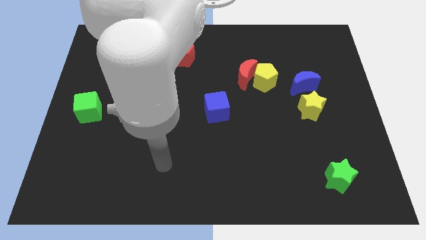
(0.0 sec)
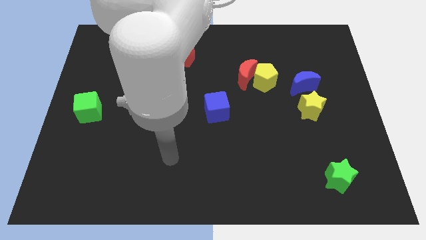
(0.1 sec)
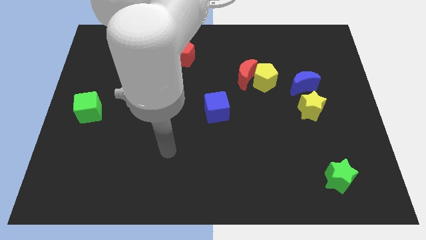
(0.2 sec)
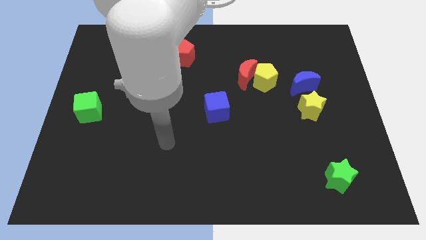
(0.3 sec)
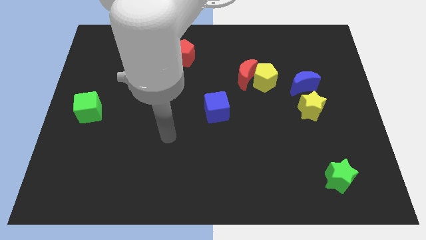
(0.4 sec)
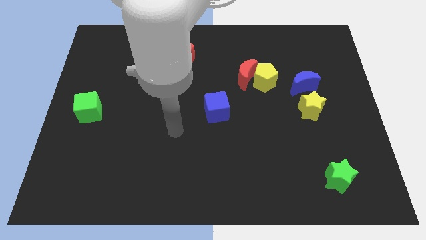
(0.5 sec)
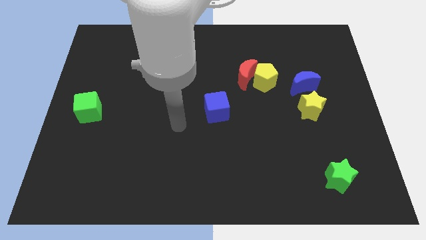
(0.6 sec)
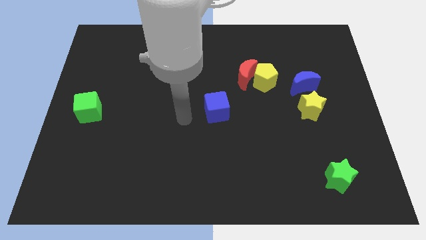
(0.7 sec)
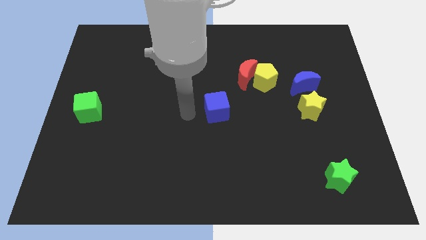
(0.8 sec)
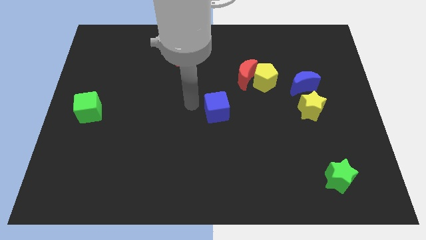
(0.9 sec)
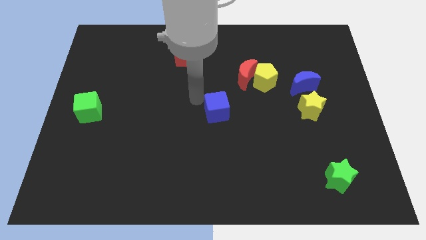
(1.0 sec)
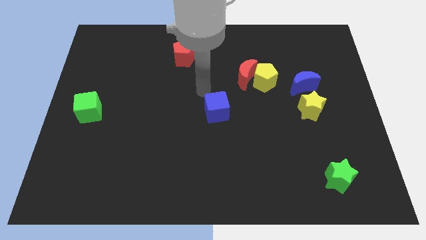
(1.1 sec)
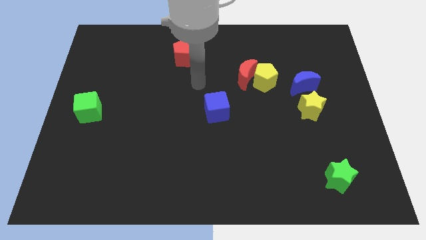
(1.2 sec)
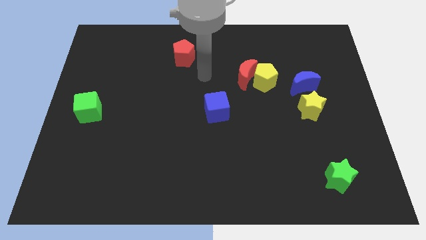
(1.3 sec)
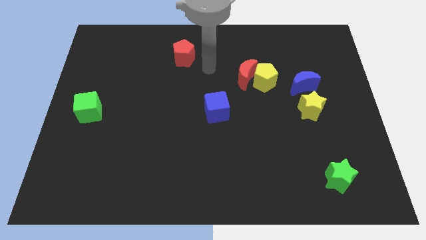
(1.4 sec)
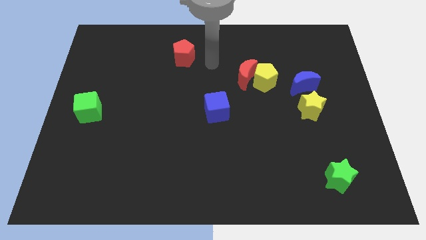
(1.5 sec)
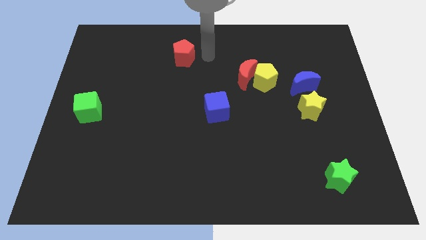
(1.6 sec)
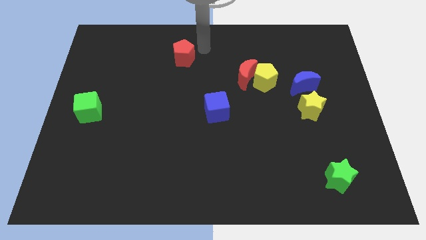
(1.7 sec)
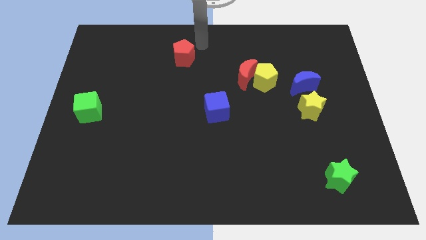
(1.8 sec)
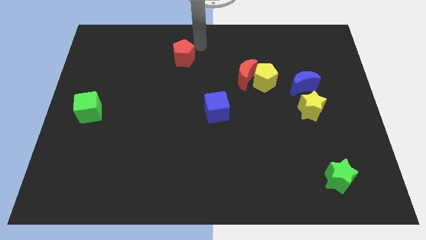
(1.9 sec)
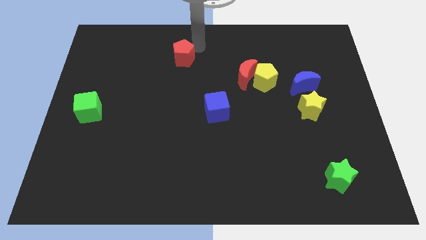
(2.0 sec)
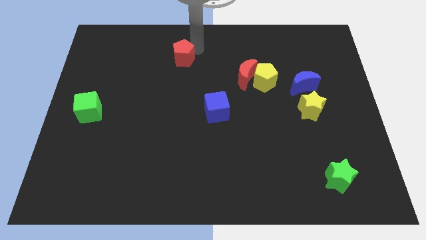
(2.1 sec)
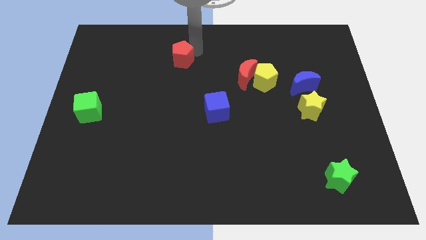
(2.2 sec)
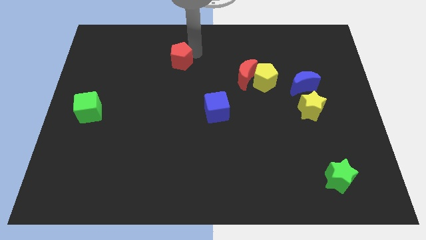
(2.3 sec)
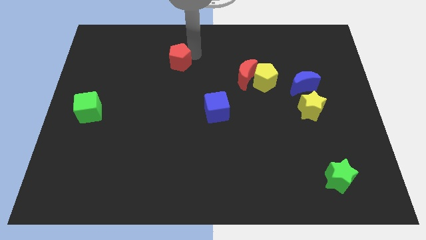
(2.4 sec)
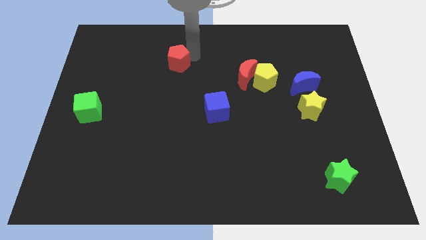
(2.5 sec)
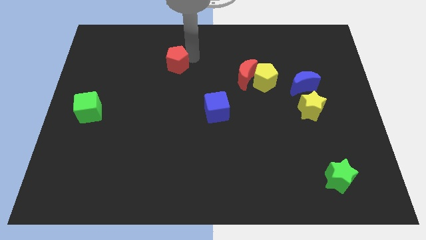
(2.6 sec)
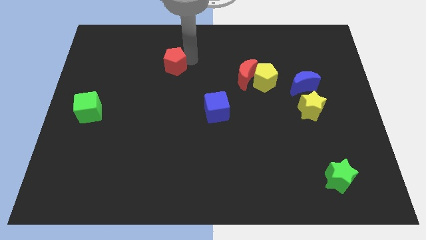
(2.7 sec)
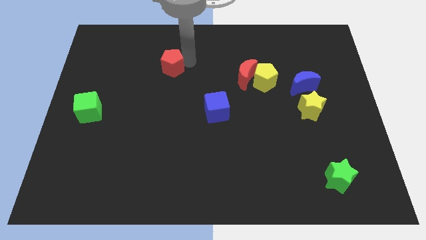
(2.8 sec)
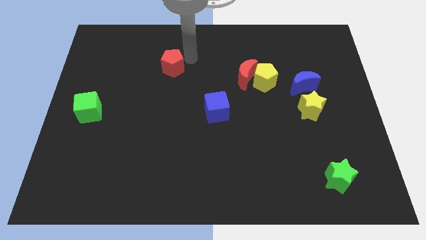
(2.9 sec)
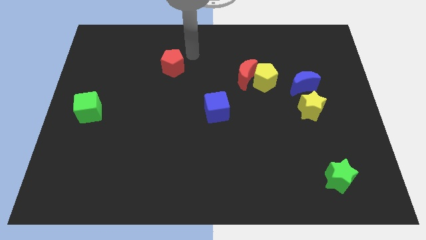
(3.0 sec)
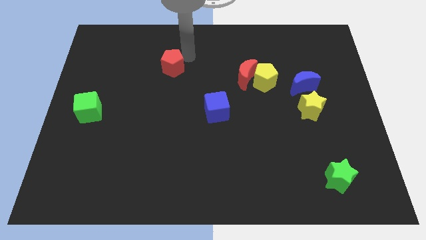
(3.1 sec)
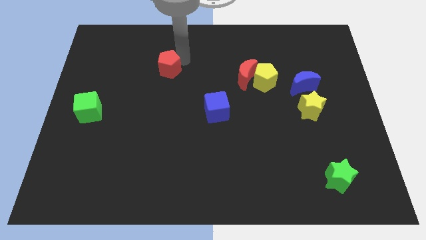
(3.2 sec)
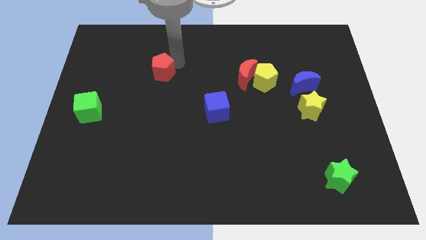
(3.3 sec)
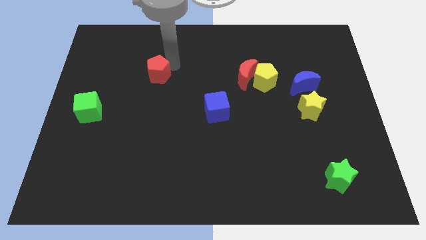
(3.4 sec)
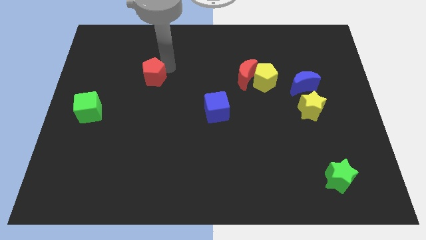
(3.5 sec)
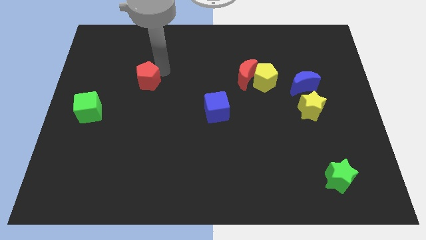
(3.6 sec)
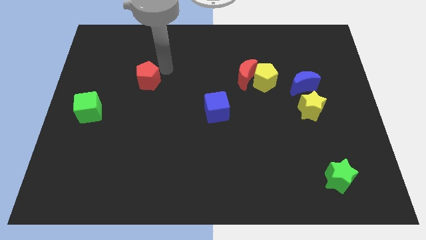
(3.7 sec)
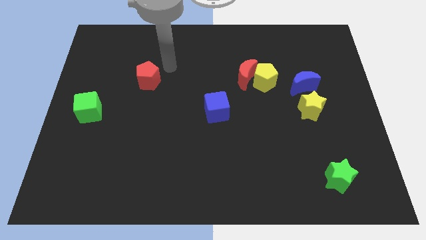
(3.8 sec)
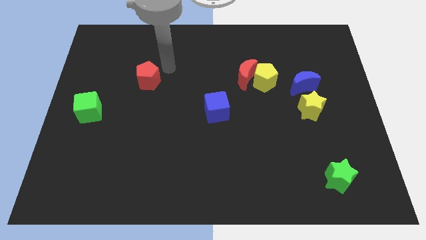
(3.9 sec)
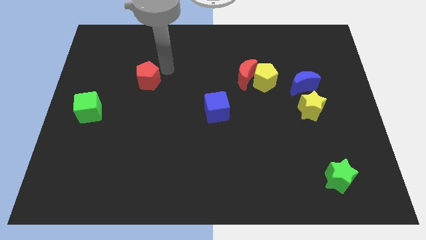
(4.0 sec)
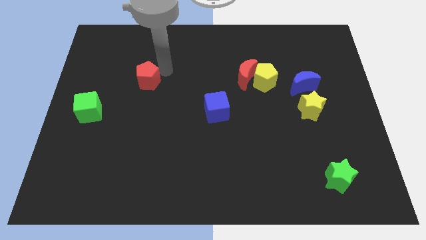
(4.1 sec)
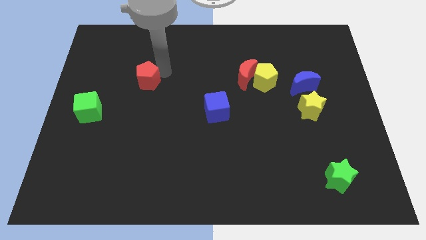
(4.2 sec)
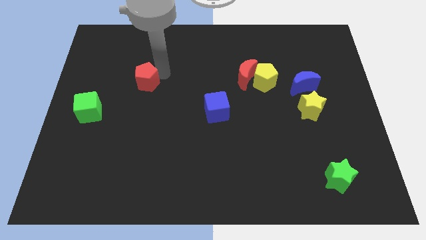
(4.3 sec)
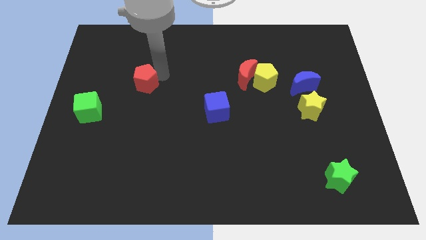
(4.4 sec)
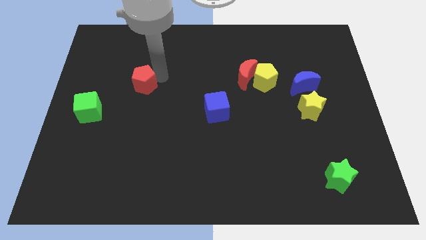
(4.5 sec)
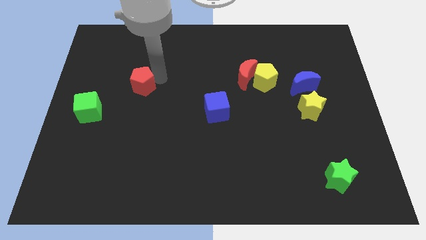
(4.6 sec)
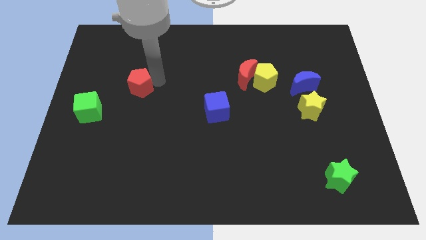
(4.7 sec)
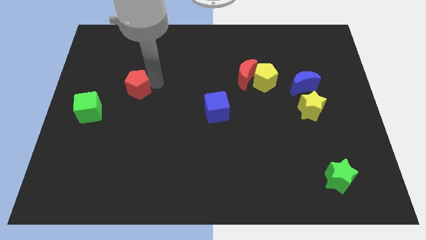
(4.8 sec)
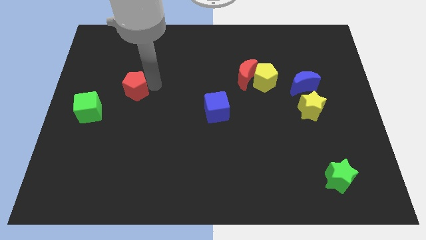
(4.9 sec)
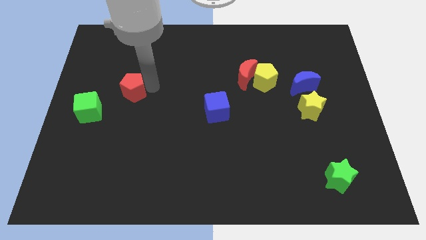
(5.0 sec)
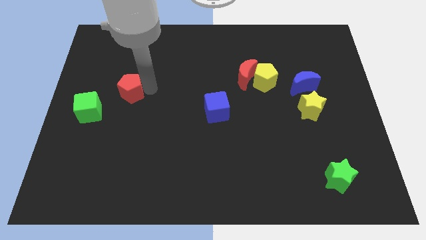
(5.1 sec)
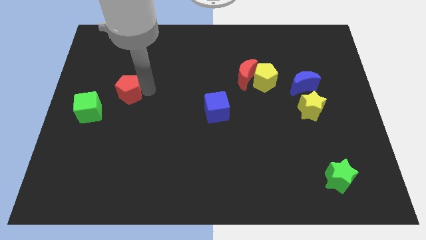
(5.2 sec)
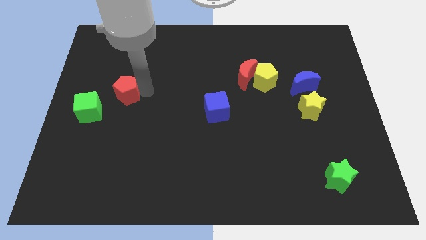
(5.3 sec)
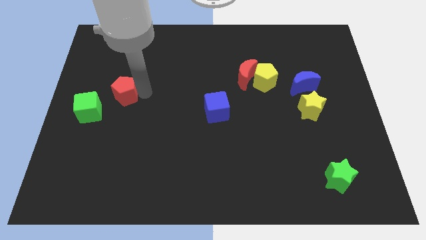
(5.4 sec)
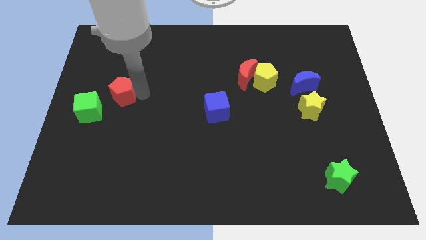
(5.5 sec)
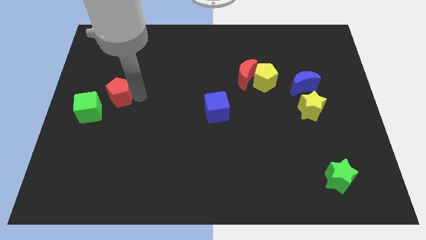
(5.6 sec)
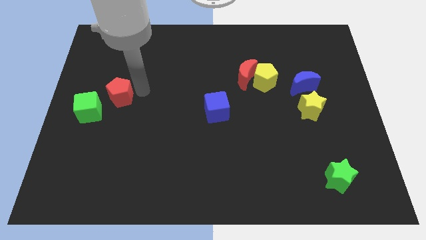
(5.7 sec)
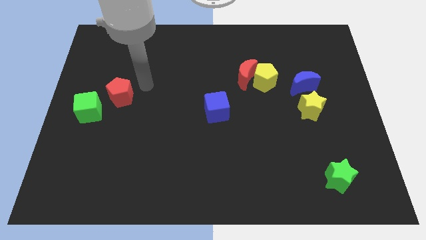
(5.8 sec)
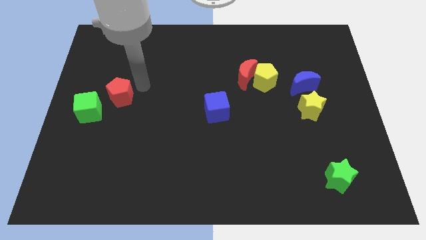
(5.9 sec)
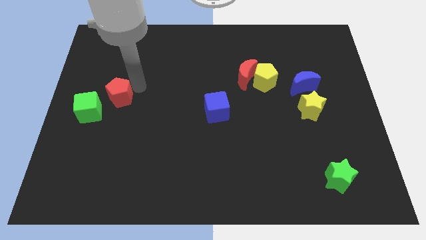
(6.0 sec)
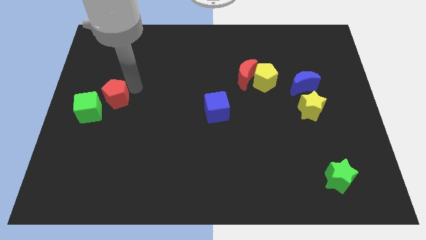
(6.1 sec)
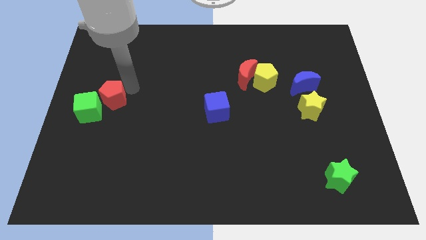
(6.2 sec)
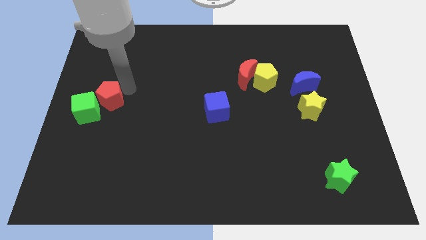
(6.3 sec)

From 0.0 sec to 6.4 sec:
push the red pentagon to the green cube

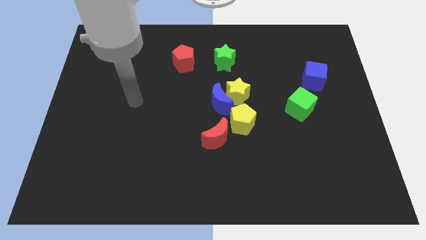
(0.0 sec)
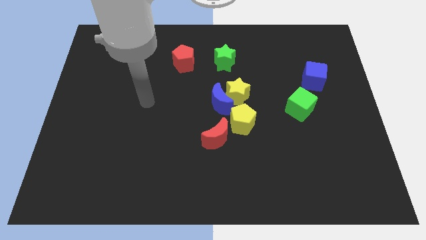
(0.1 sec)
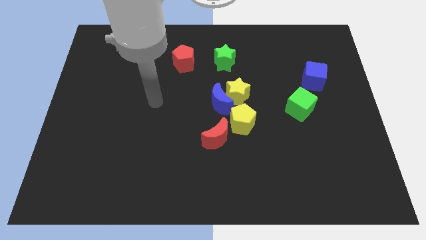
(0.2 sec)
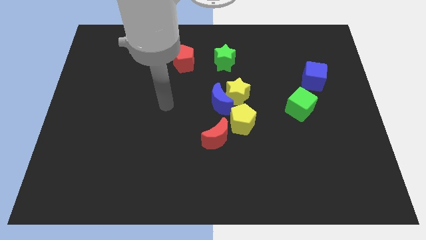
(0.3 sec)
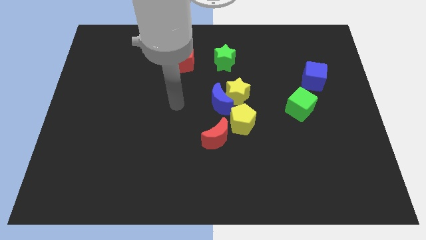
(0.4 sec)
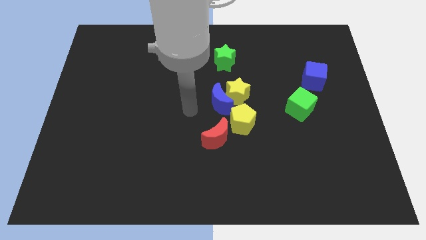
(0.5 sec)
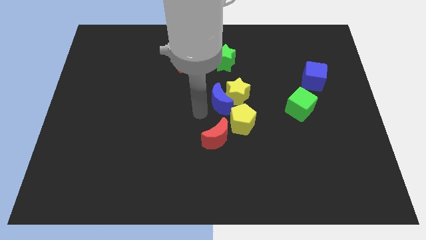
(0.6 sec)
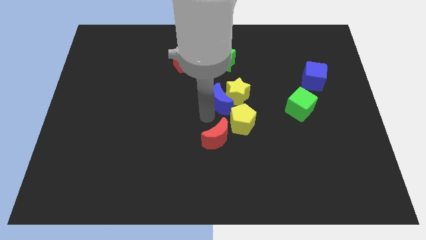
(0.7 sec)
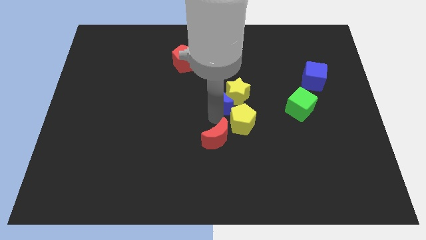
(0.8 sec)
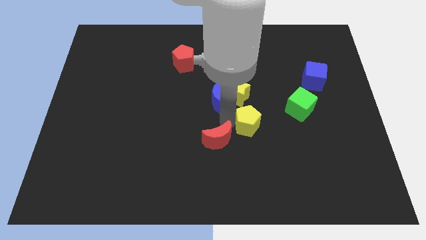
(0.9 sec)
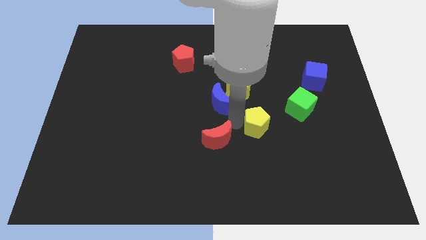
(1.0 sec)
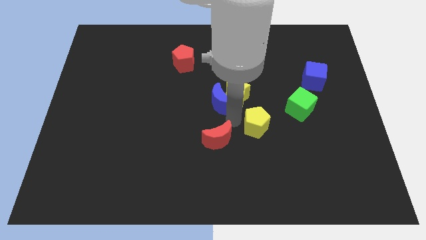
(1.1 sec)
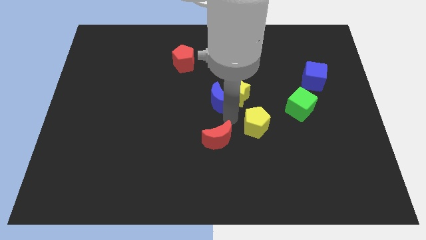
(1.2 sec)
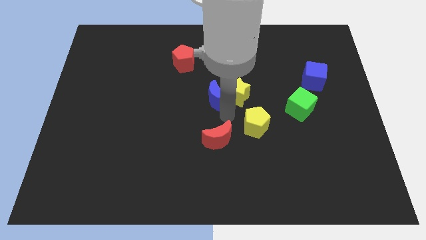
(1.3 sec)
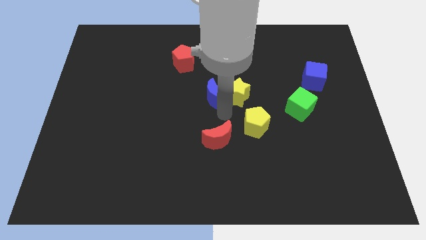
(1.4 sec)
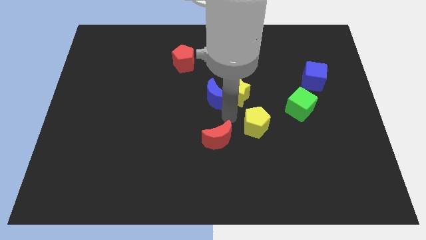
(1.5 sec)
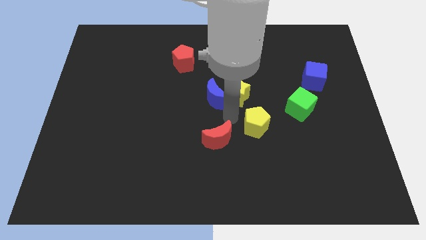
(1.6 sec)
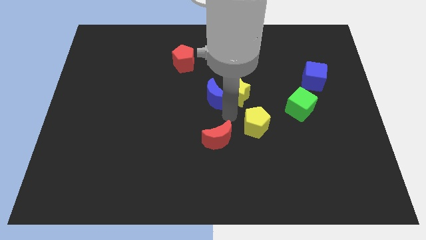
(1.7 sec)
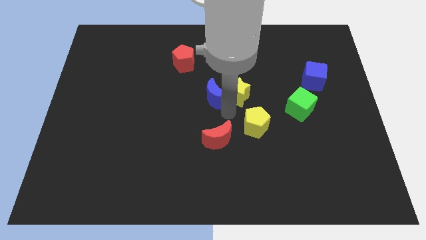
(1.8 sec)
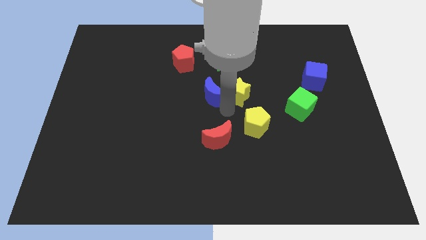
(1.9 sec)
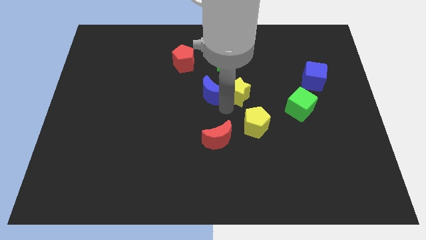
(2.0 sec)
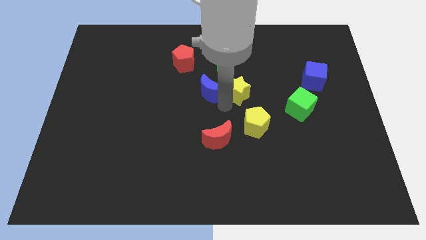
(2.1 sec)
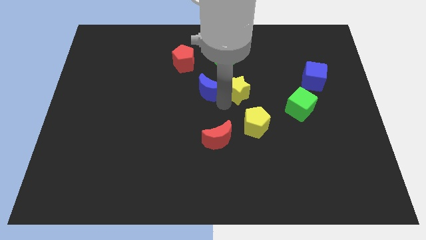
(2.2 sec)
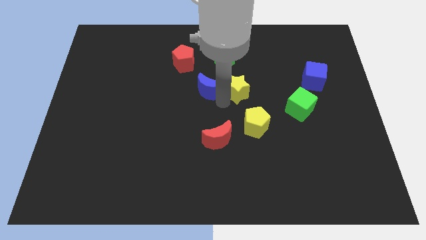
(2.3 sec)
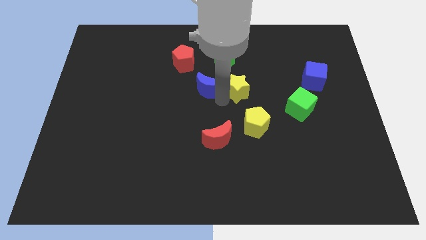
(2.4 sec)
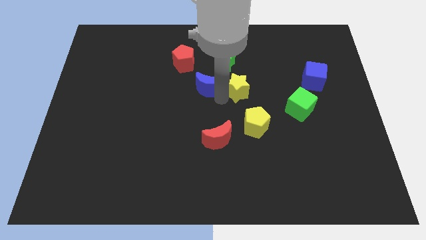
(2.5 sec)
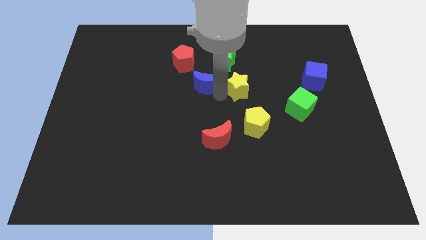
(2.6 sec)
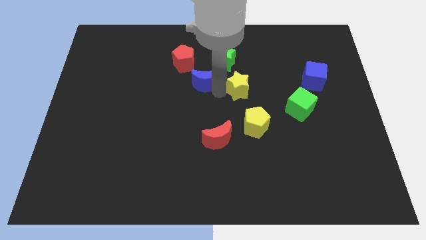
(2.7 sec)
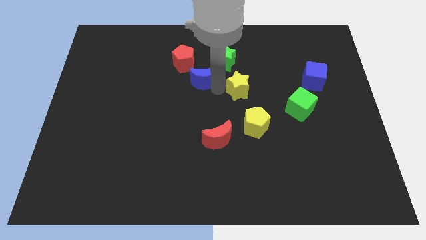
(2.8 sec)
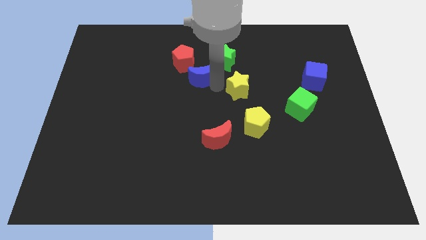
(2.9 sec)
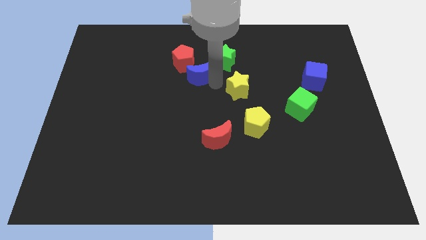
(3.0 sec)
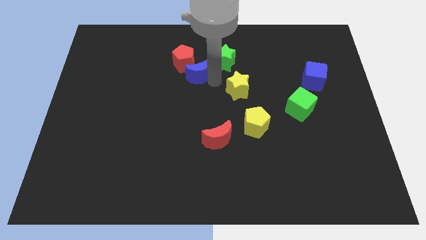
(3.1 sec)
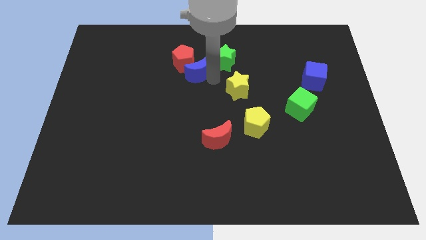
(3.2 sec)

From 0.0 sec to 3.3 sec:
put the blue moon to the red pentagon
